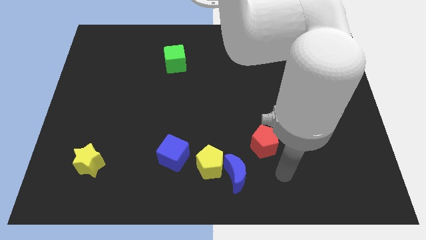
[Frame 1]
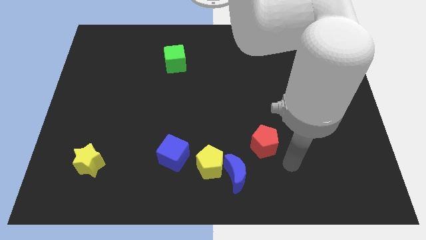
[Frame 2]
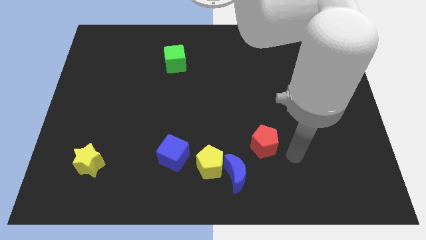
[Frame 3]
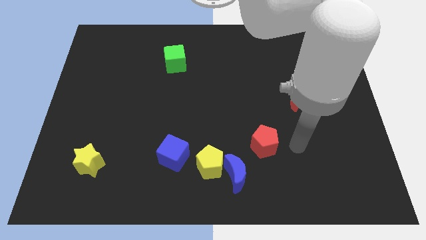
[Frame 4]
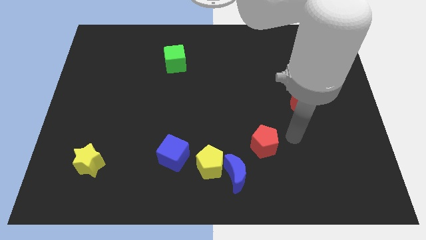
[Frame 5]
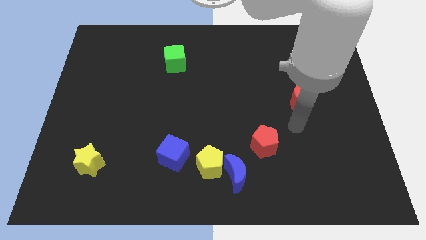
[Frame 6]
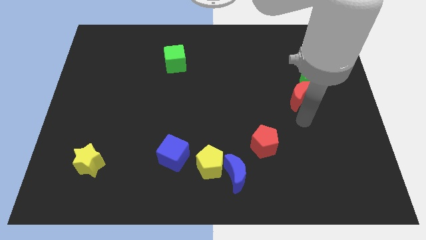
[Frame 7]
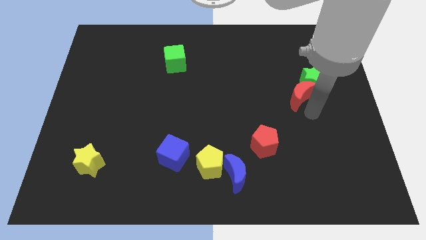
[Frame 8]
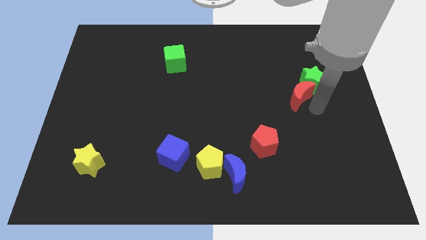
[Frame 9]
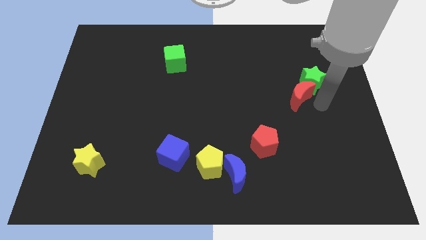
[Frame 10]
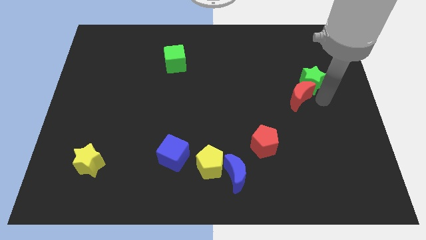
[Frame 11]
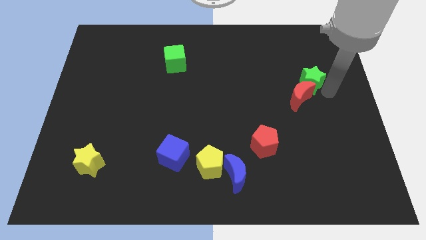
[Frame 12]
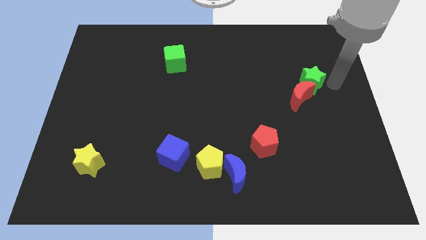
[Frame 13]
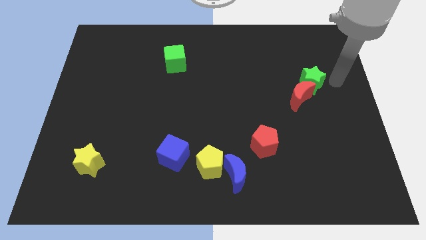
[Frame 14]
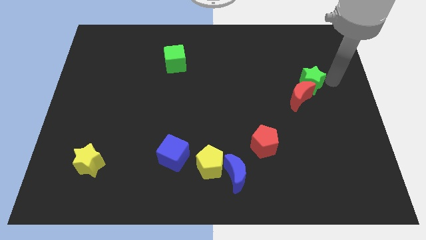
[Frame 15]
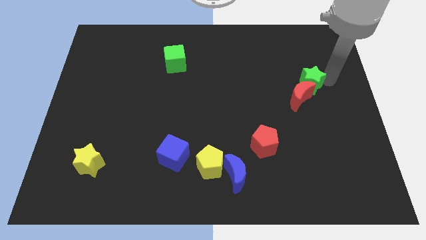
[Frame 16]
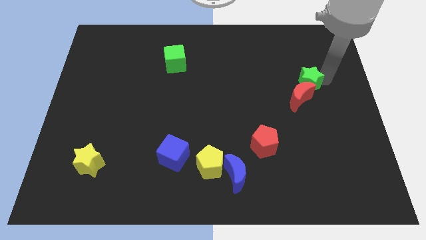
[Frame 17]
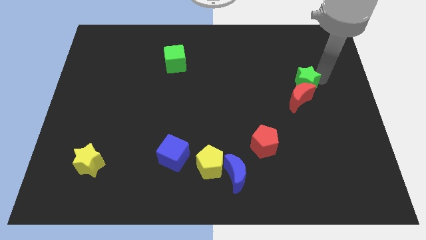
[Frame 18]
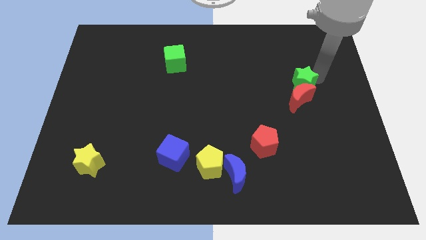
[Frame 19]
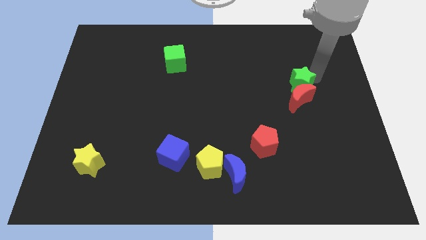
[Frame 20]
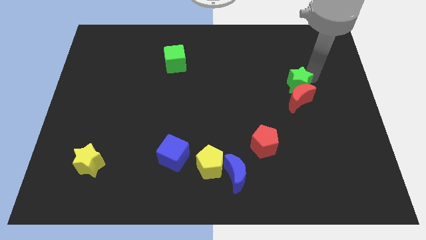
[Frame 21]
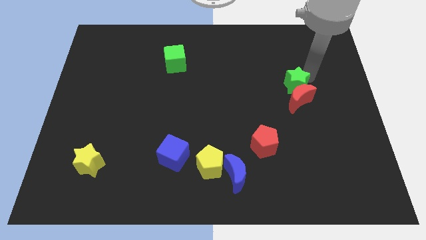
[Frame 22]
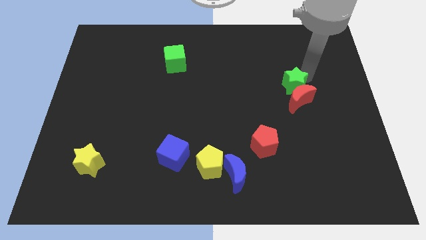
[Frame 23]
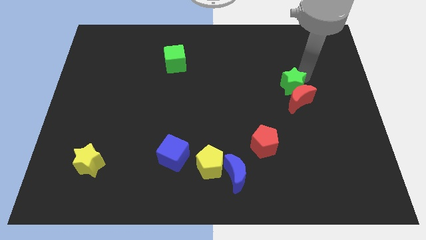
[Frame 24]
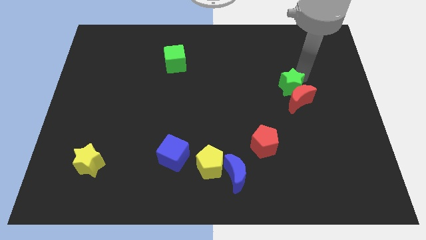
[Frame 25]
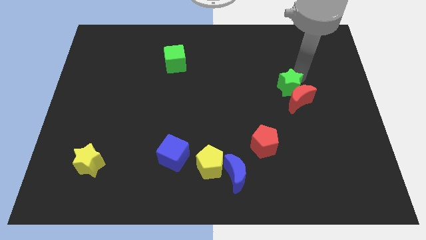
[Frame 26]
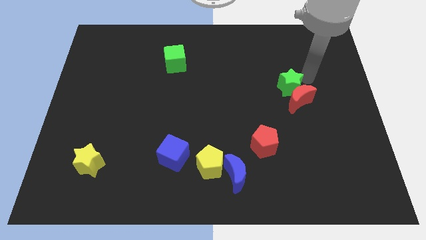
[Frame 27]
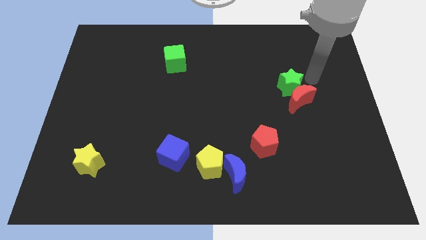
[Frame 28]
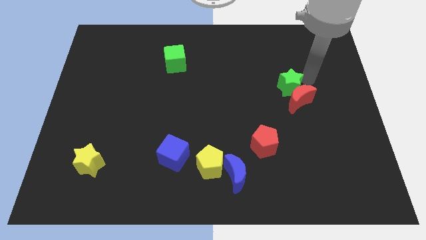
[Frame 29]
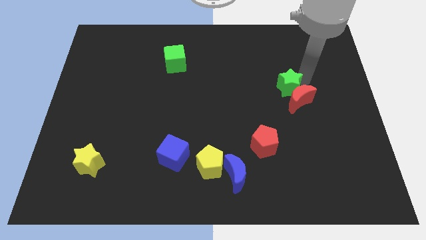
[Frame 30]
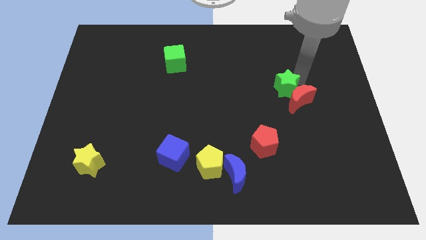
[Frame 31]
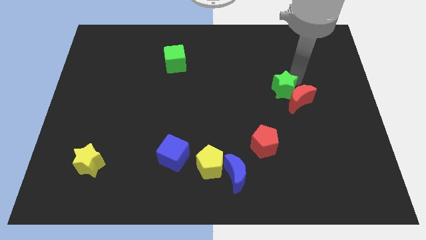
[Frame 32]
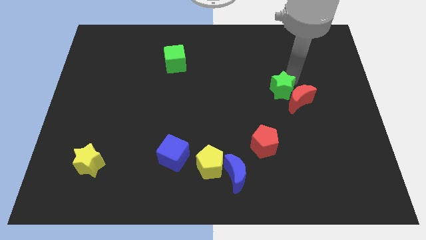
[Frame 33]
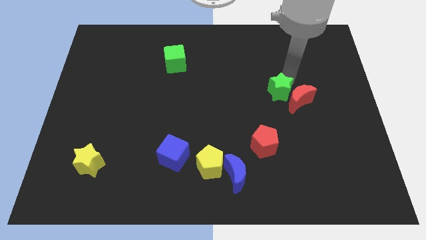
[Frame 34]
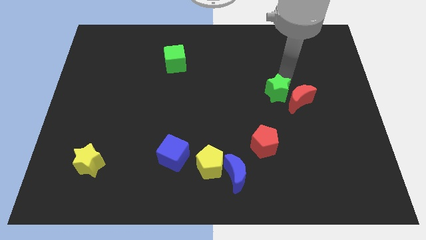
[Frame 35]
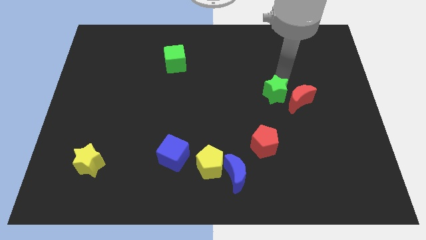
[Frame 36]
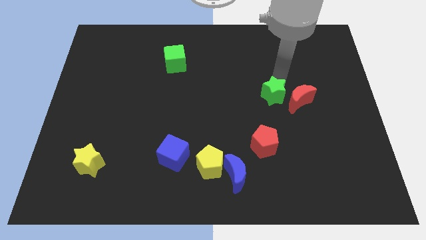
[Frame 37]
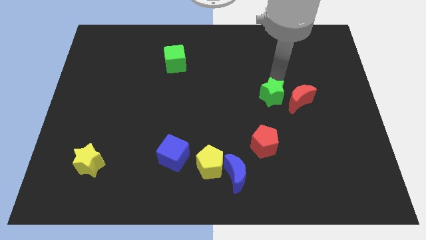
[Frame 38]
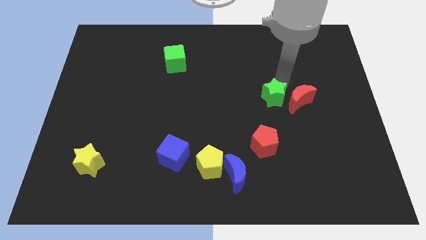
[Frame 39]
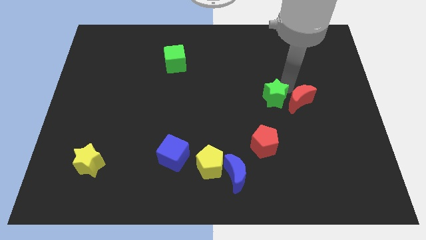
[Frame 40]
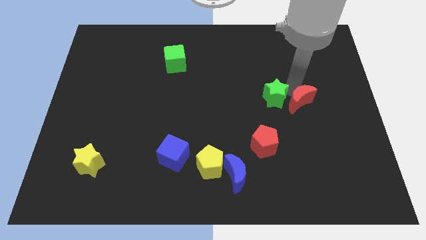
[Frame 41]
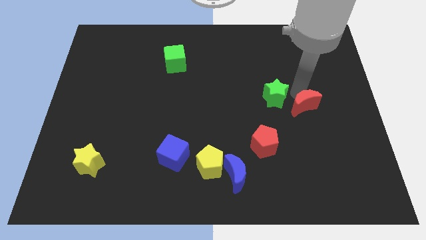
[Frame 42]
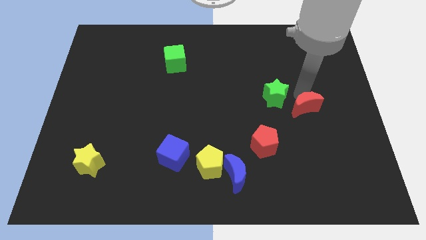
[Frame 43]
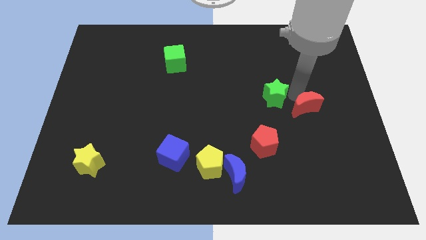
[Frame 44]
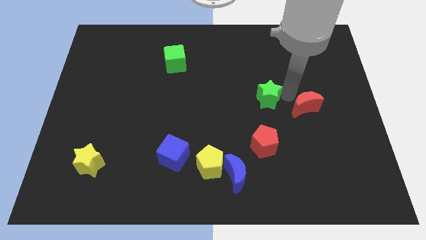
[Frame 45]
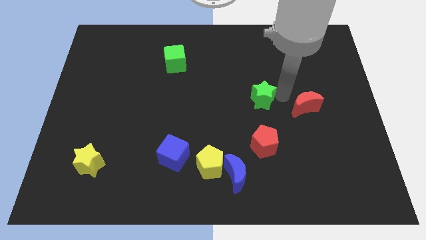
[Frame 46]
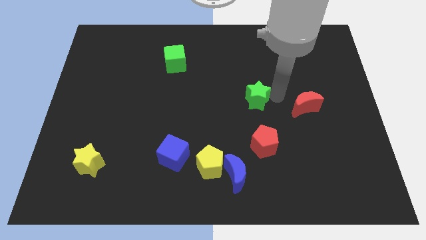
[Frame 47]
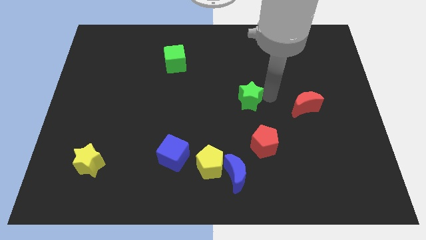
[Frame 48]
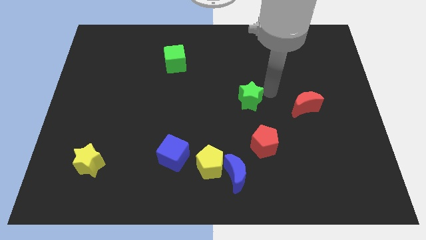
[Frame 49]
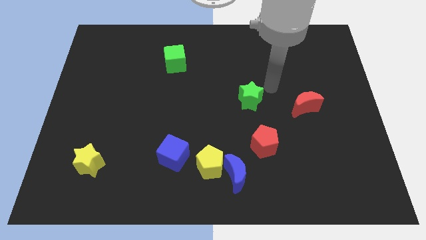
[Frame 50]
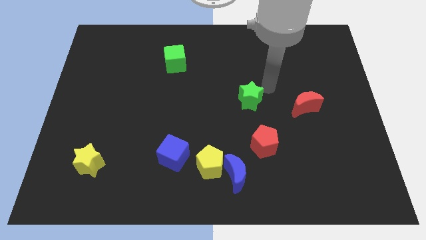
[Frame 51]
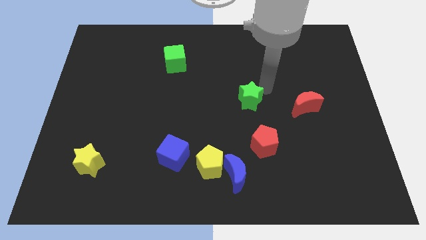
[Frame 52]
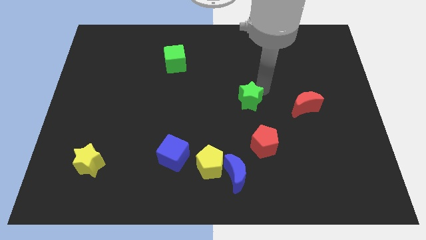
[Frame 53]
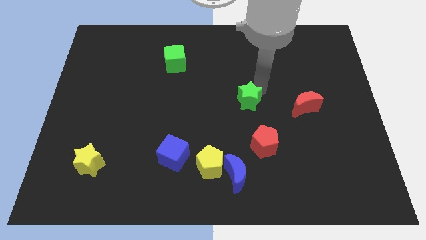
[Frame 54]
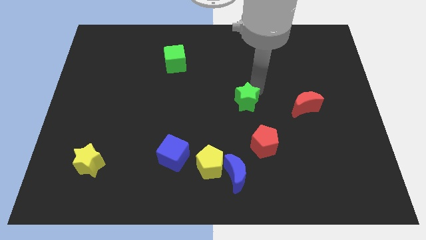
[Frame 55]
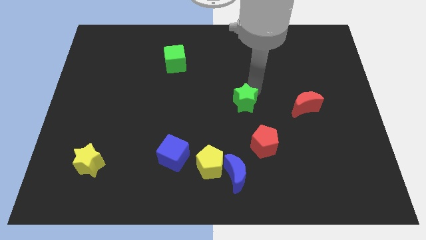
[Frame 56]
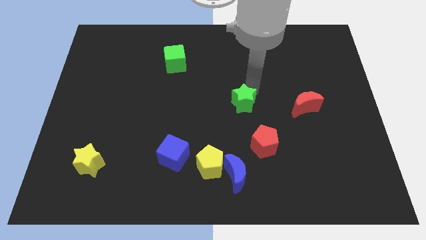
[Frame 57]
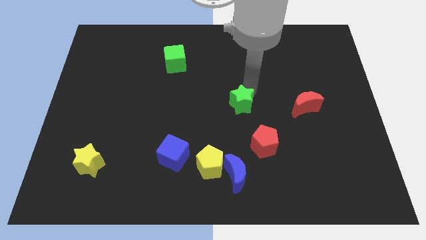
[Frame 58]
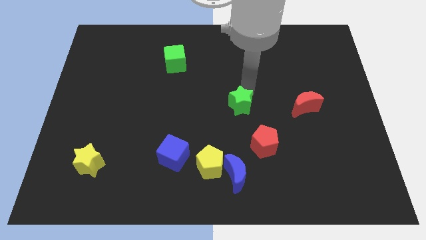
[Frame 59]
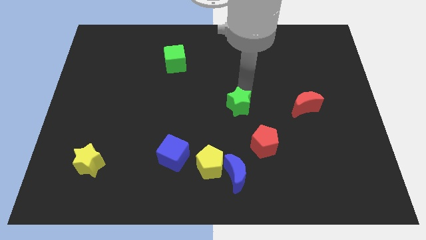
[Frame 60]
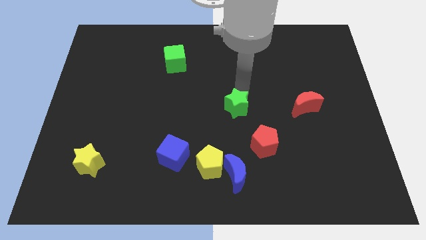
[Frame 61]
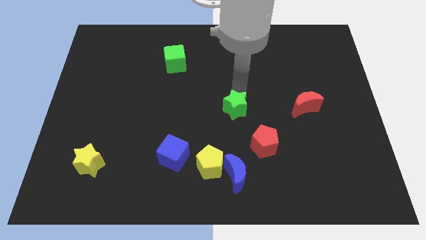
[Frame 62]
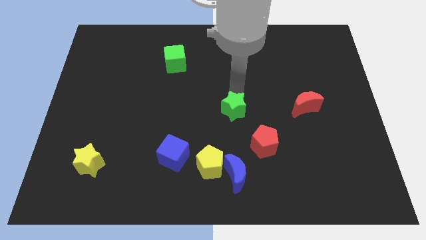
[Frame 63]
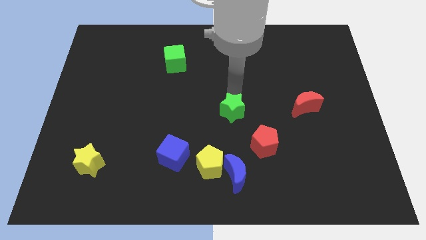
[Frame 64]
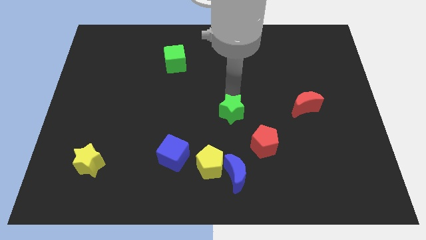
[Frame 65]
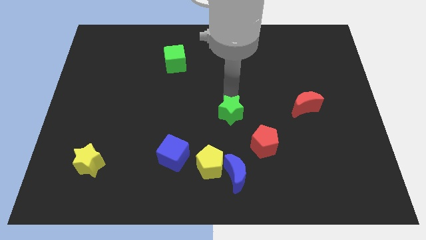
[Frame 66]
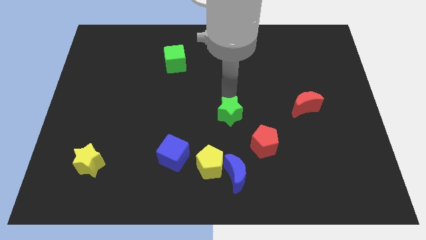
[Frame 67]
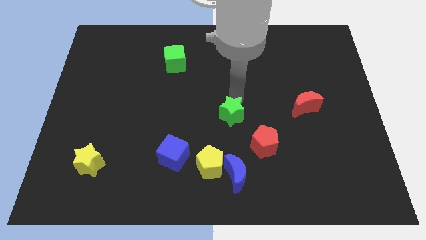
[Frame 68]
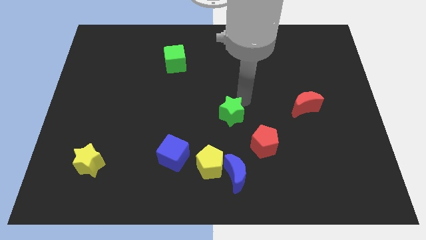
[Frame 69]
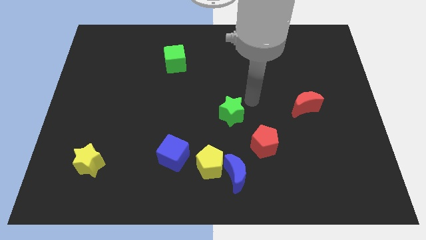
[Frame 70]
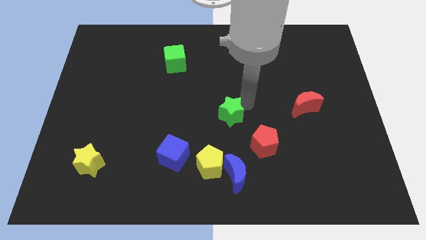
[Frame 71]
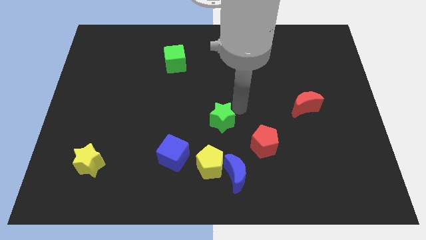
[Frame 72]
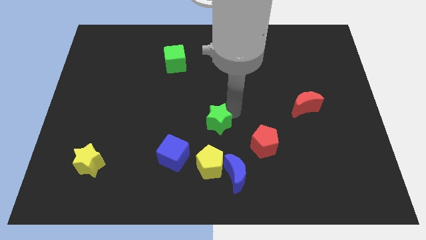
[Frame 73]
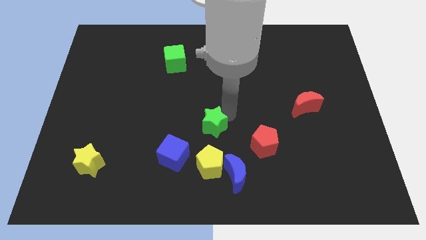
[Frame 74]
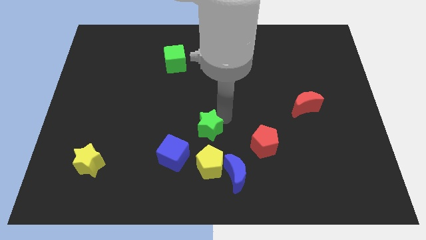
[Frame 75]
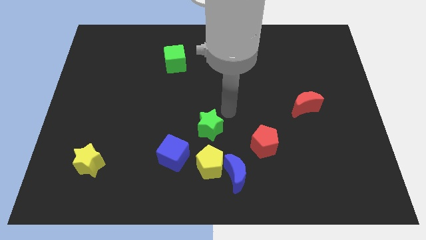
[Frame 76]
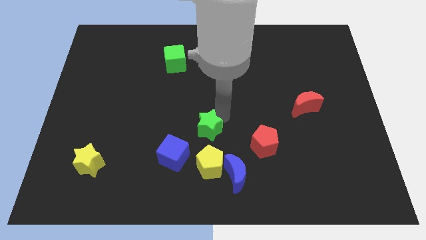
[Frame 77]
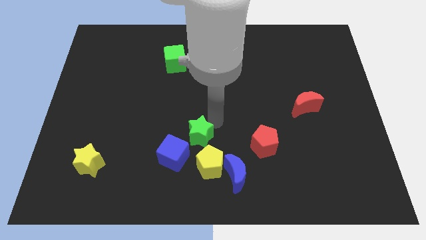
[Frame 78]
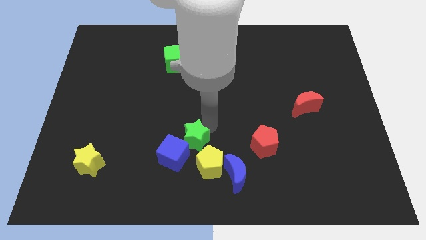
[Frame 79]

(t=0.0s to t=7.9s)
move the green star to the blue cube
